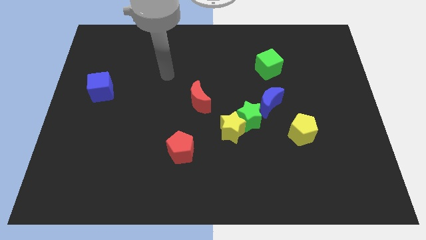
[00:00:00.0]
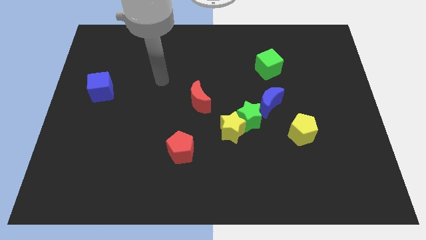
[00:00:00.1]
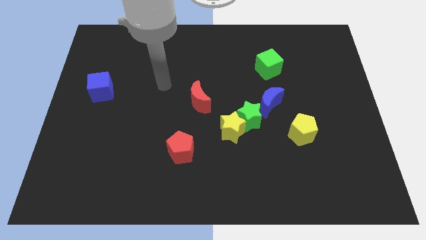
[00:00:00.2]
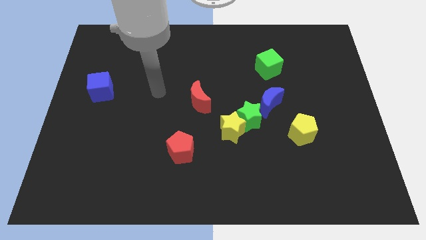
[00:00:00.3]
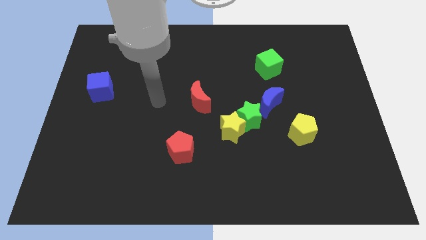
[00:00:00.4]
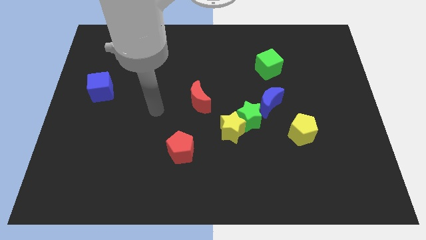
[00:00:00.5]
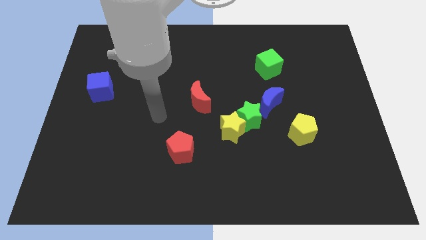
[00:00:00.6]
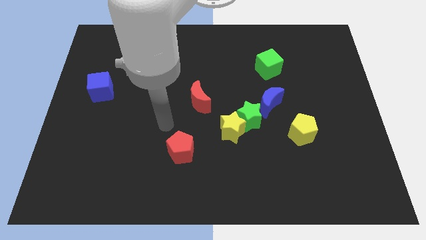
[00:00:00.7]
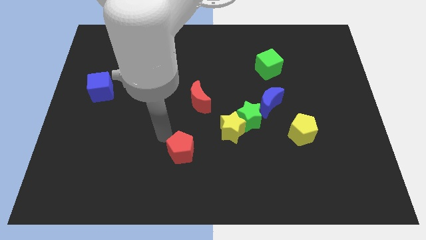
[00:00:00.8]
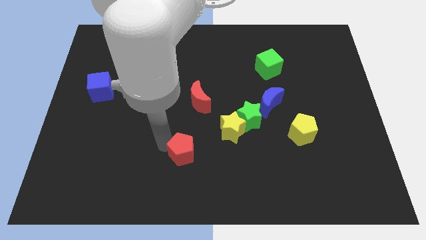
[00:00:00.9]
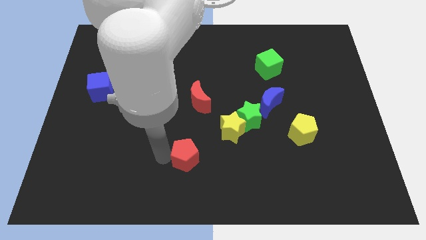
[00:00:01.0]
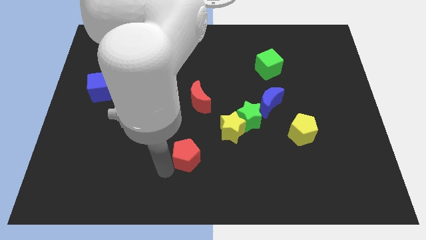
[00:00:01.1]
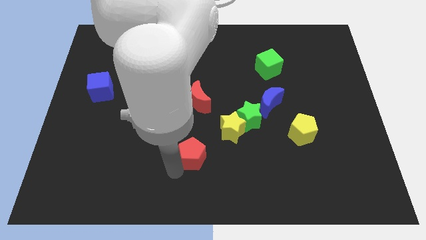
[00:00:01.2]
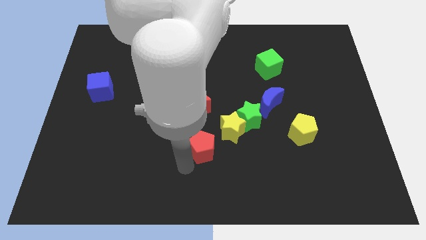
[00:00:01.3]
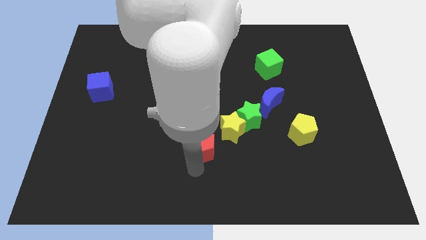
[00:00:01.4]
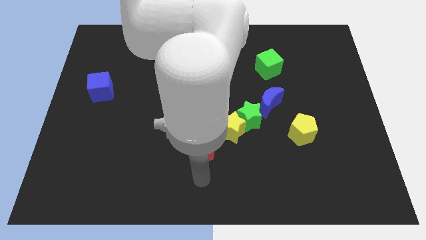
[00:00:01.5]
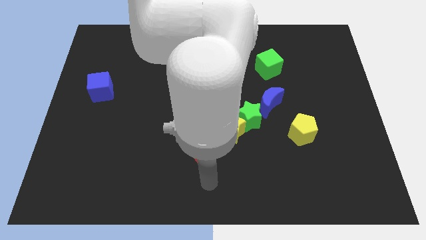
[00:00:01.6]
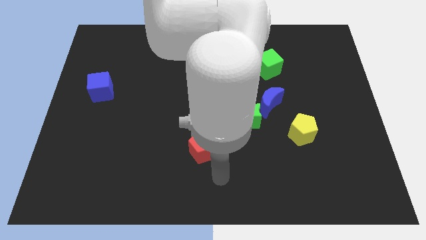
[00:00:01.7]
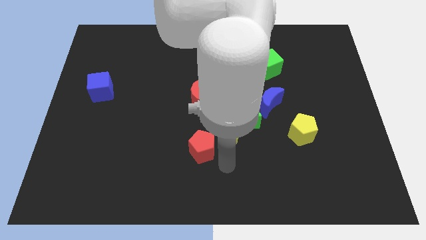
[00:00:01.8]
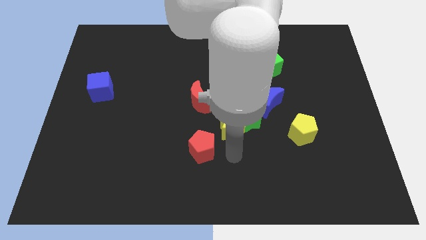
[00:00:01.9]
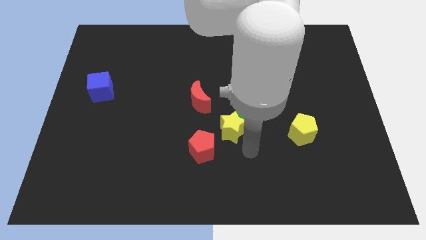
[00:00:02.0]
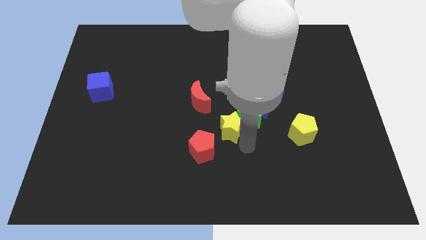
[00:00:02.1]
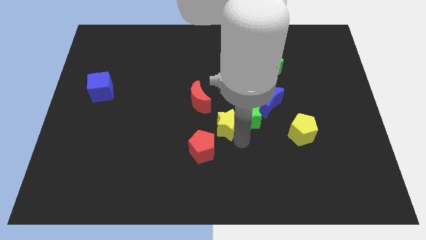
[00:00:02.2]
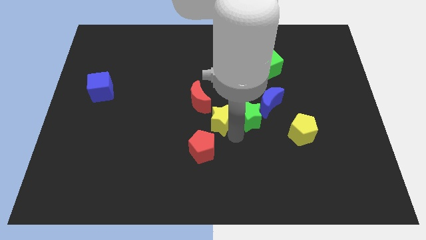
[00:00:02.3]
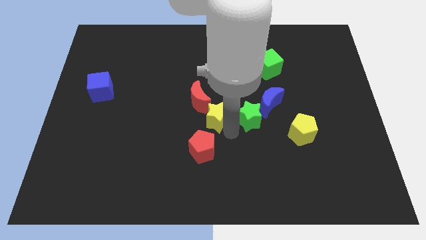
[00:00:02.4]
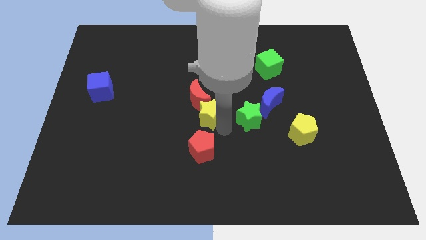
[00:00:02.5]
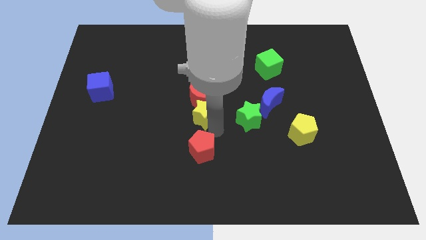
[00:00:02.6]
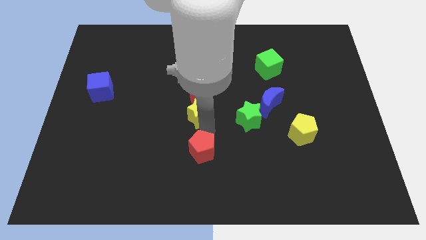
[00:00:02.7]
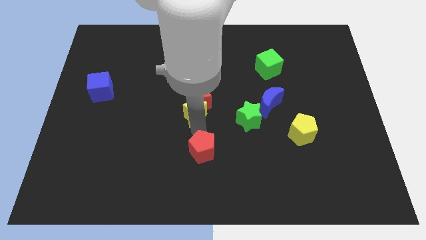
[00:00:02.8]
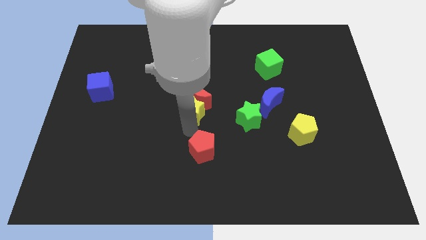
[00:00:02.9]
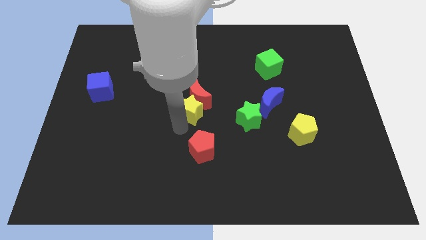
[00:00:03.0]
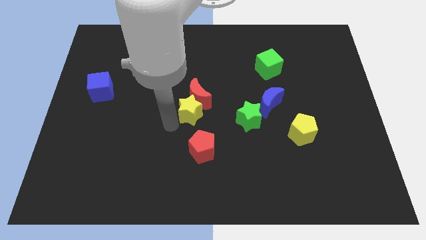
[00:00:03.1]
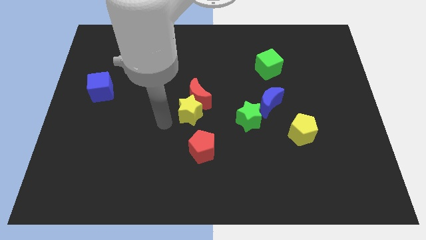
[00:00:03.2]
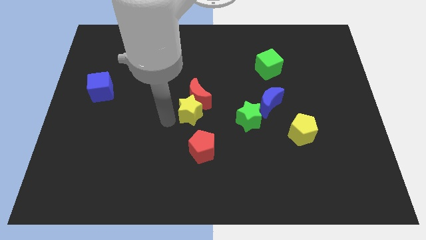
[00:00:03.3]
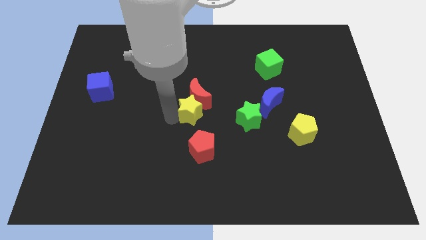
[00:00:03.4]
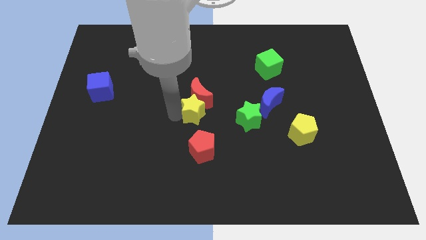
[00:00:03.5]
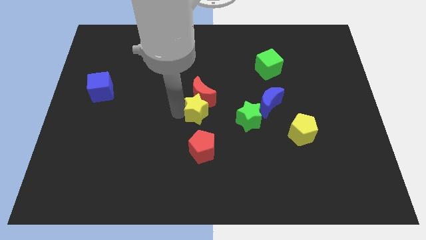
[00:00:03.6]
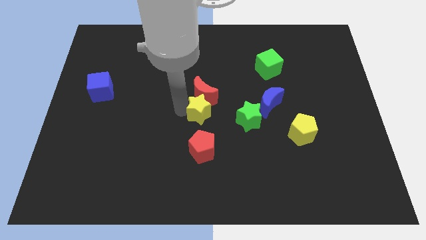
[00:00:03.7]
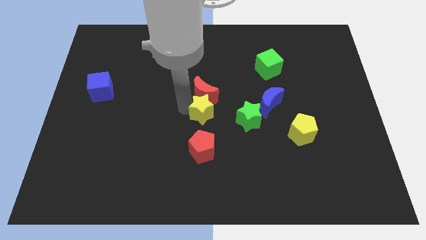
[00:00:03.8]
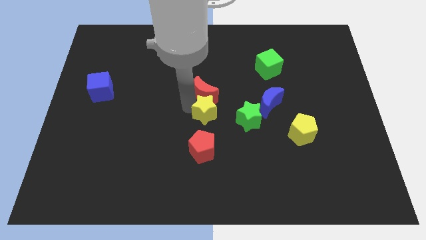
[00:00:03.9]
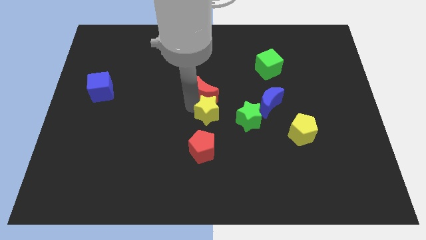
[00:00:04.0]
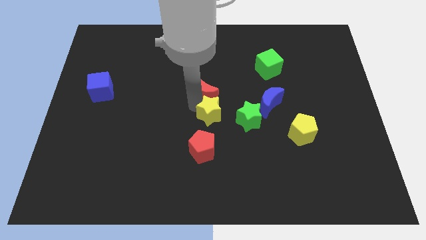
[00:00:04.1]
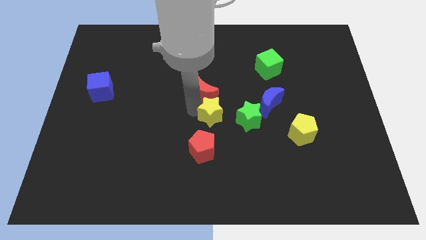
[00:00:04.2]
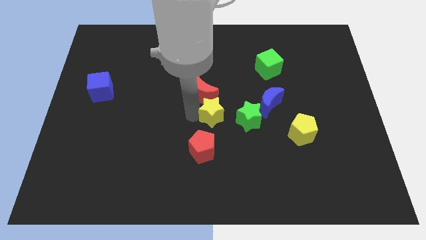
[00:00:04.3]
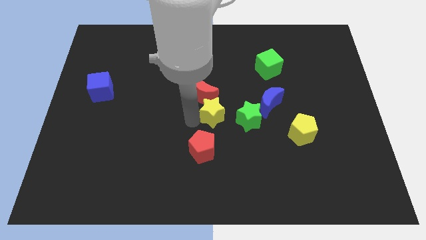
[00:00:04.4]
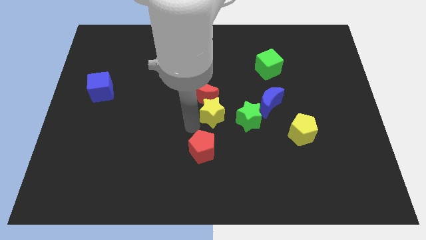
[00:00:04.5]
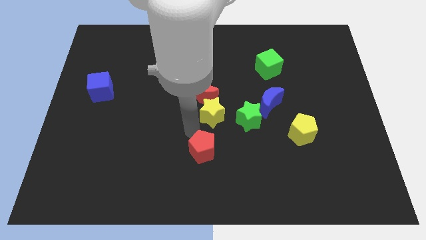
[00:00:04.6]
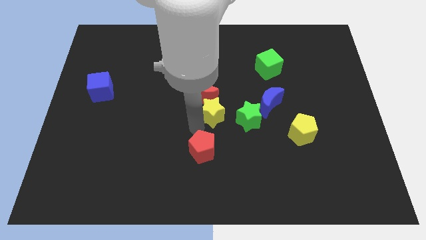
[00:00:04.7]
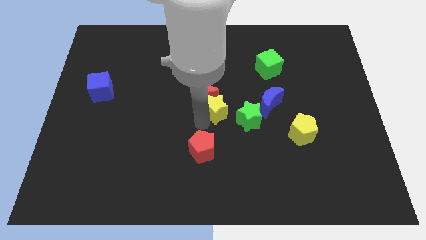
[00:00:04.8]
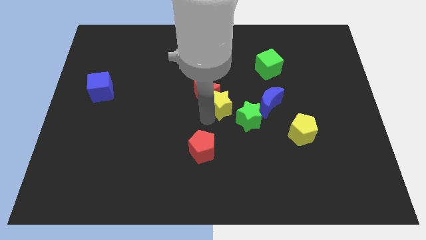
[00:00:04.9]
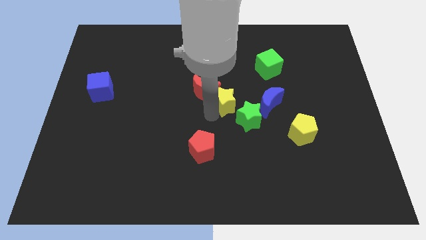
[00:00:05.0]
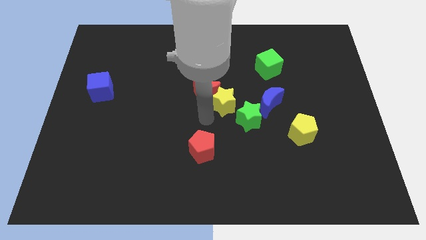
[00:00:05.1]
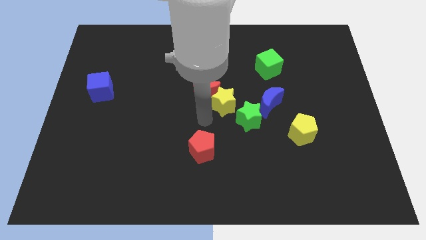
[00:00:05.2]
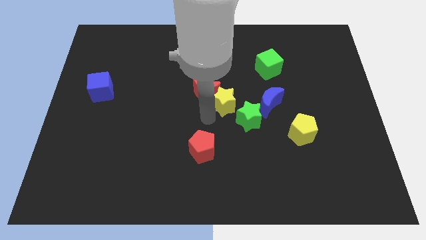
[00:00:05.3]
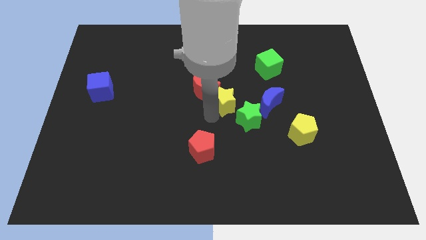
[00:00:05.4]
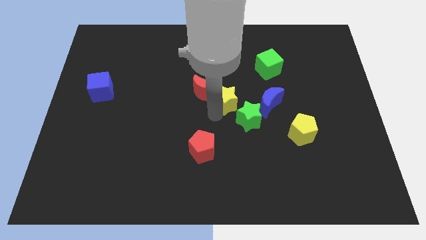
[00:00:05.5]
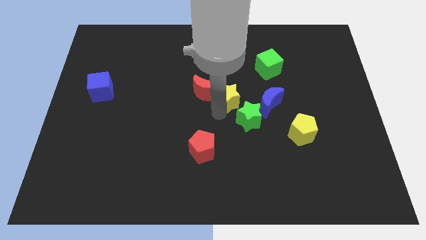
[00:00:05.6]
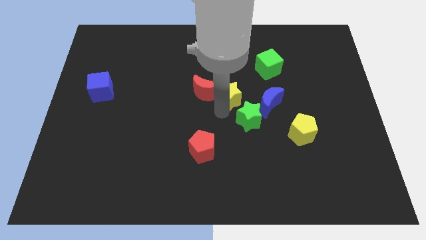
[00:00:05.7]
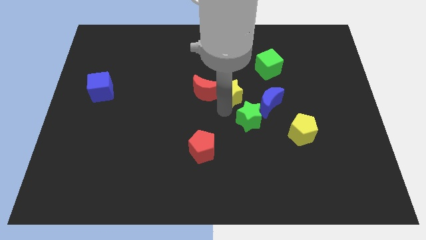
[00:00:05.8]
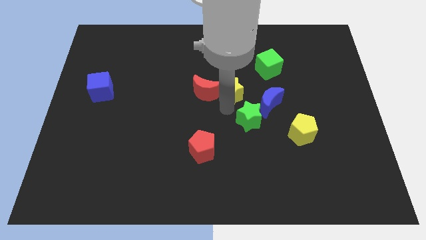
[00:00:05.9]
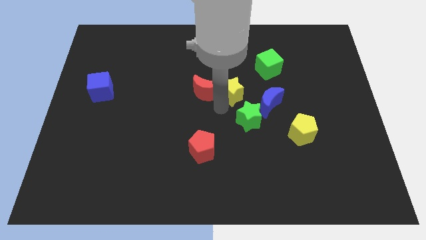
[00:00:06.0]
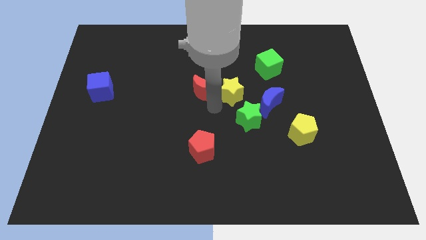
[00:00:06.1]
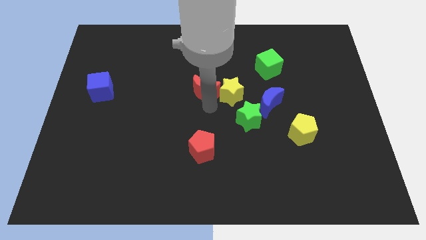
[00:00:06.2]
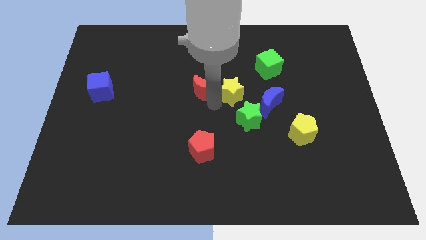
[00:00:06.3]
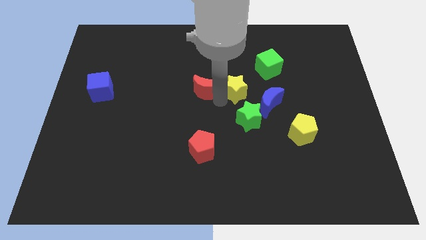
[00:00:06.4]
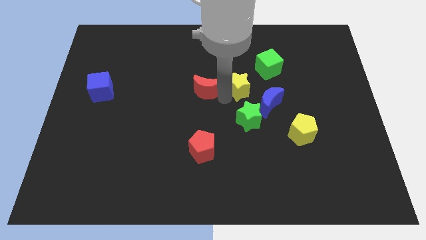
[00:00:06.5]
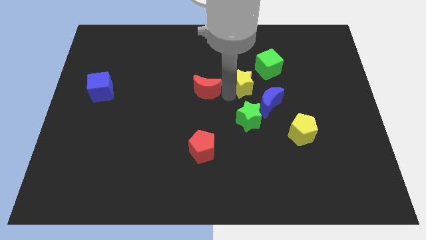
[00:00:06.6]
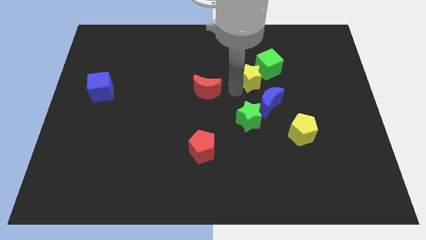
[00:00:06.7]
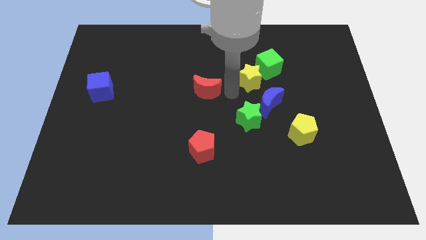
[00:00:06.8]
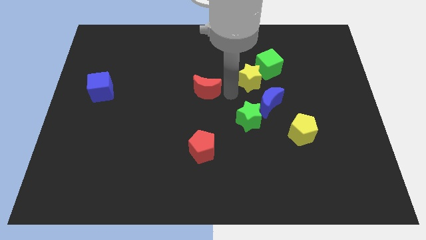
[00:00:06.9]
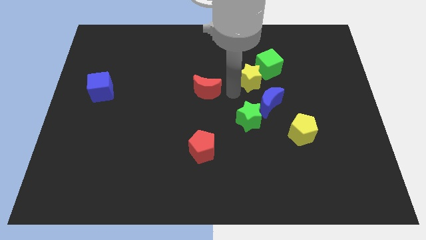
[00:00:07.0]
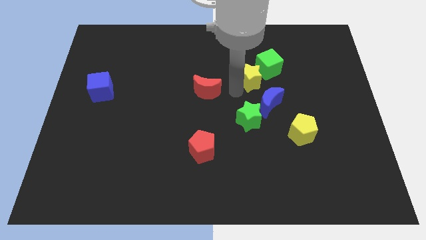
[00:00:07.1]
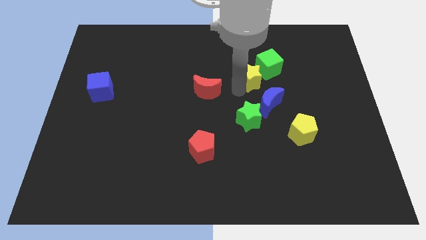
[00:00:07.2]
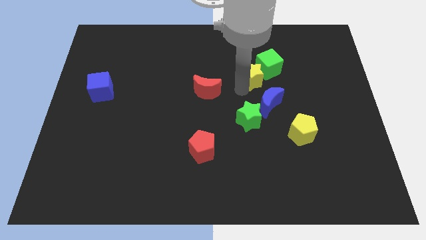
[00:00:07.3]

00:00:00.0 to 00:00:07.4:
slide the yellow star next to the green cube
